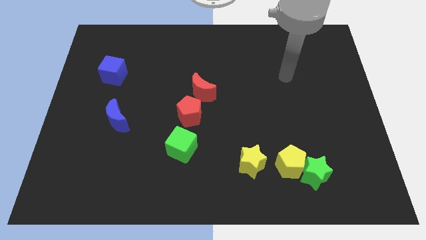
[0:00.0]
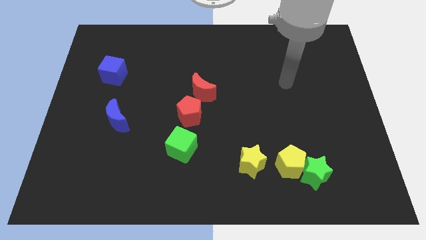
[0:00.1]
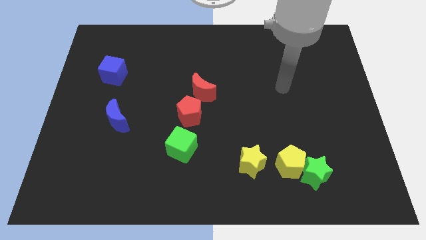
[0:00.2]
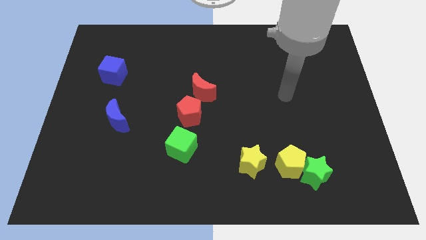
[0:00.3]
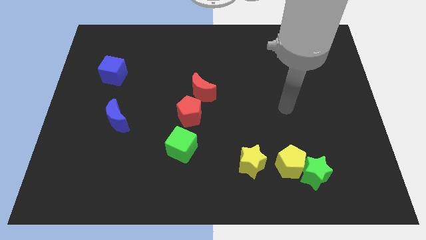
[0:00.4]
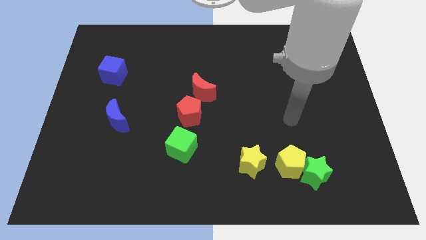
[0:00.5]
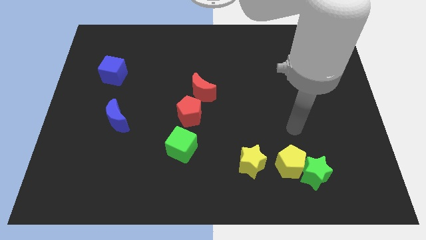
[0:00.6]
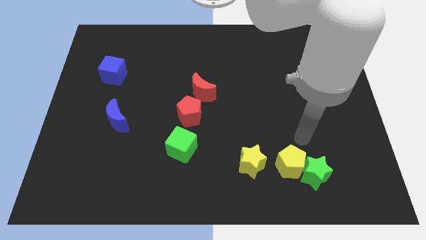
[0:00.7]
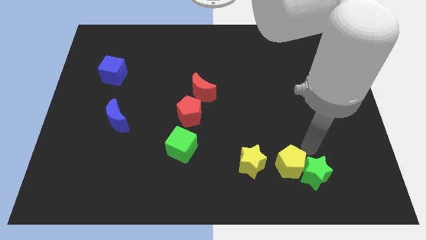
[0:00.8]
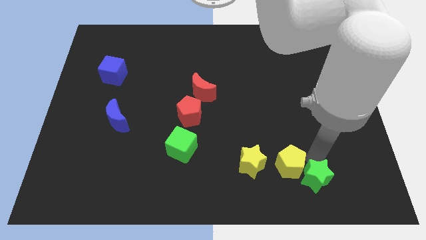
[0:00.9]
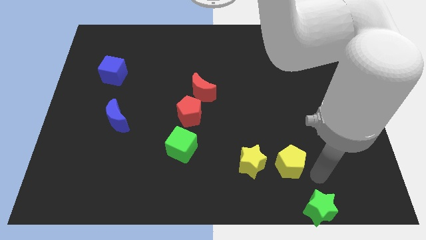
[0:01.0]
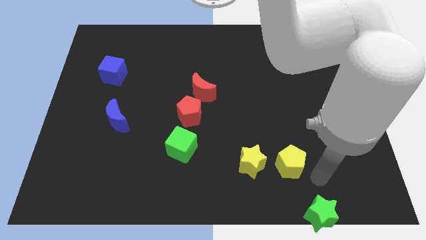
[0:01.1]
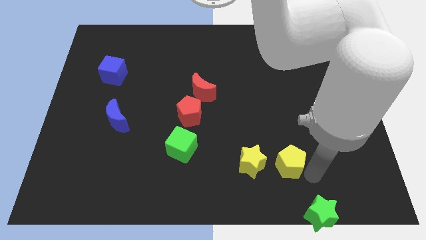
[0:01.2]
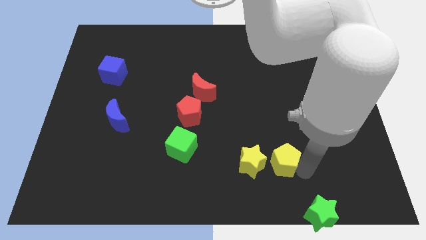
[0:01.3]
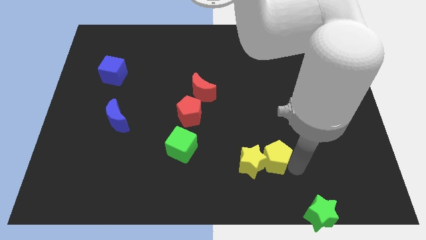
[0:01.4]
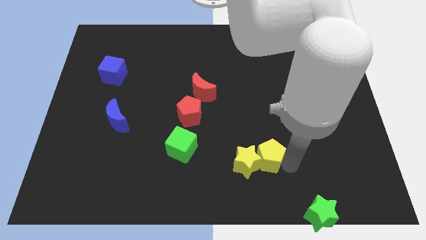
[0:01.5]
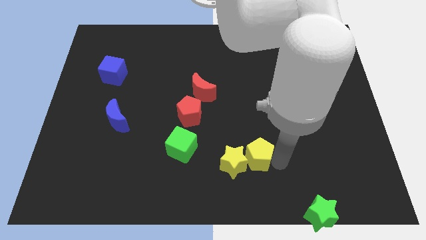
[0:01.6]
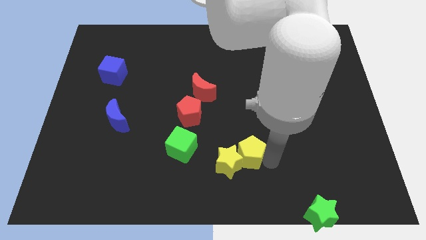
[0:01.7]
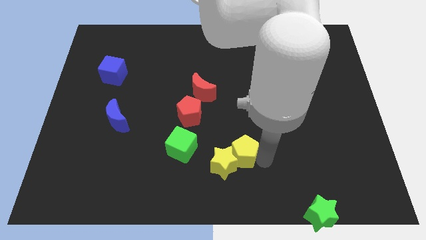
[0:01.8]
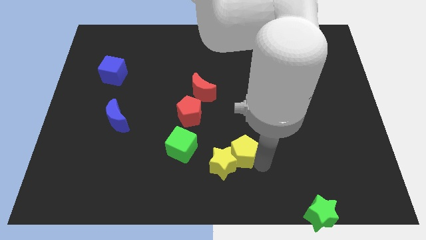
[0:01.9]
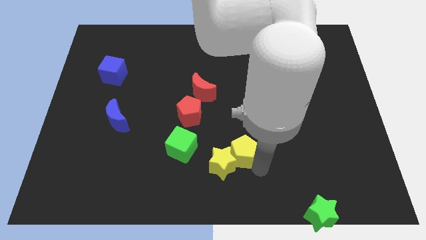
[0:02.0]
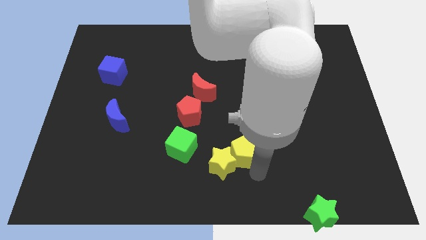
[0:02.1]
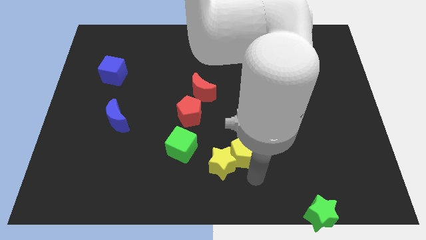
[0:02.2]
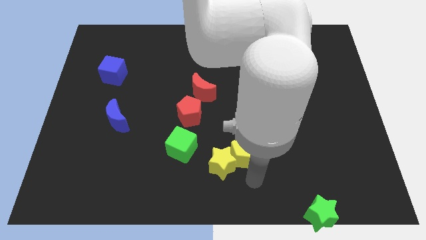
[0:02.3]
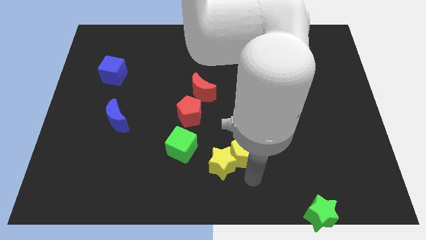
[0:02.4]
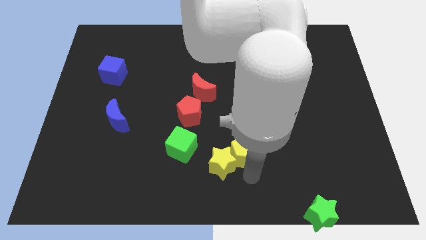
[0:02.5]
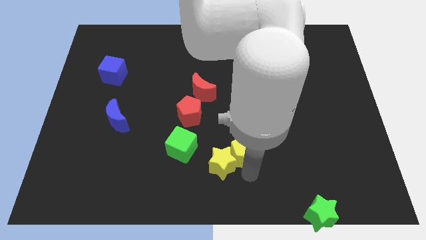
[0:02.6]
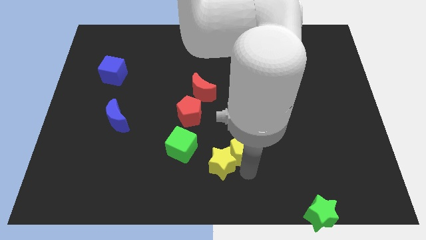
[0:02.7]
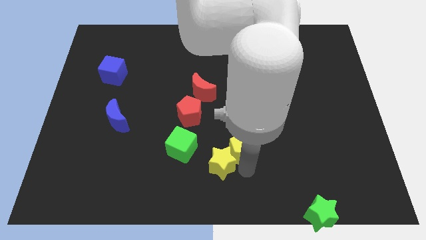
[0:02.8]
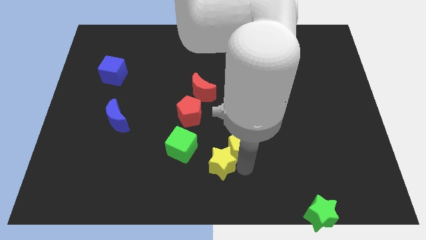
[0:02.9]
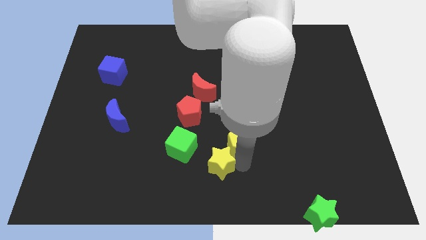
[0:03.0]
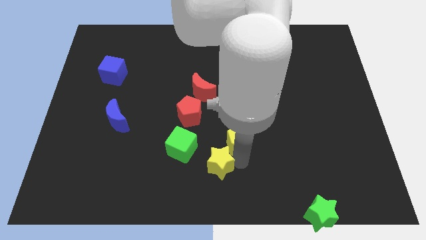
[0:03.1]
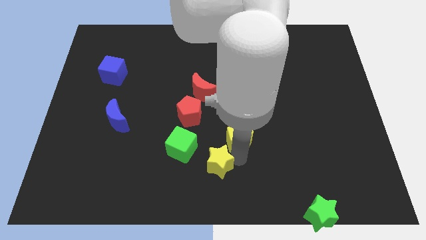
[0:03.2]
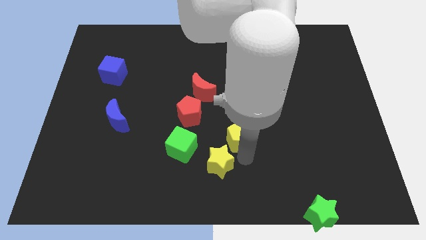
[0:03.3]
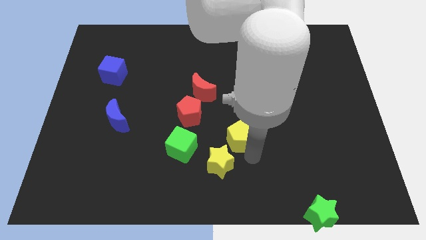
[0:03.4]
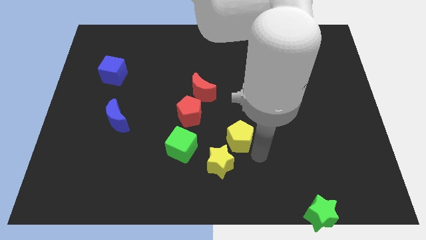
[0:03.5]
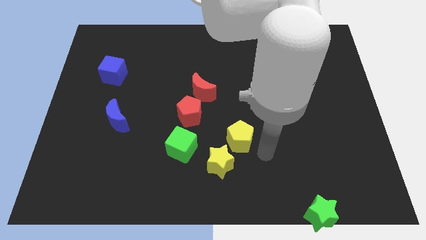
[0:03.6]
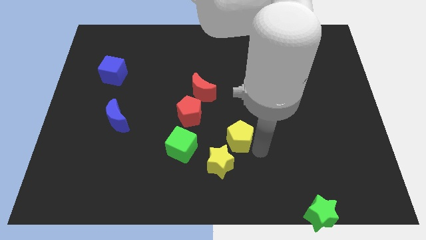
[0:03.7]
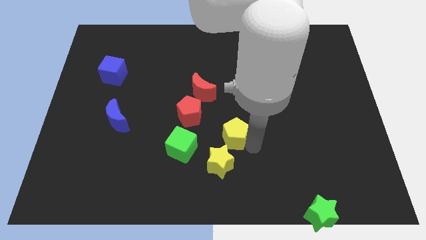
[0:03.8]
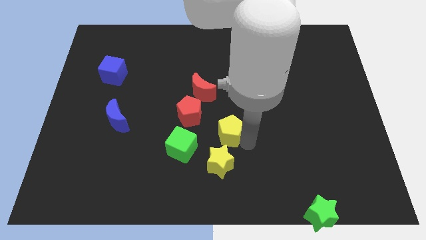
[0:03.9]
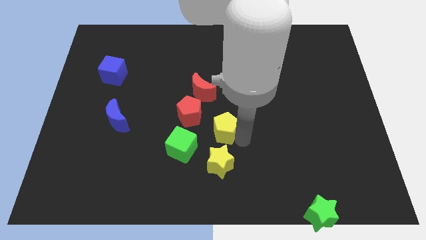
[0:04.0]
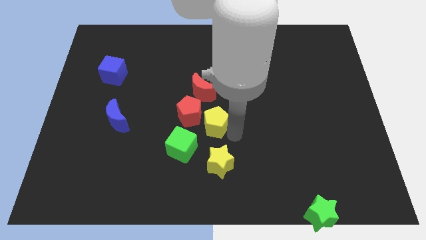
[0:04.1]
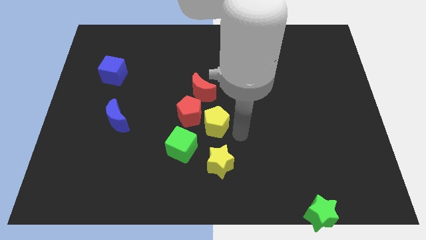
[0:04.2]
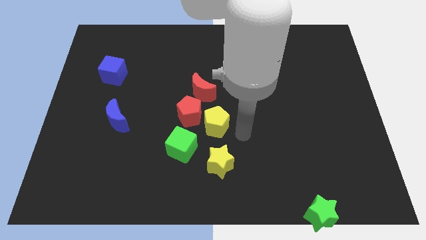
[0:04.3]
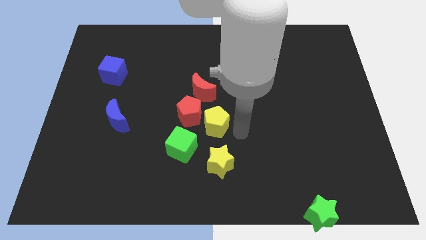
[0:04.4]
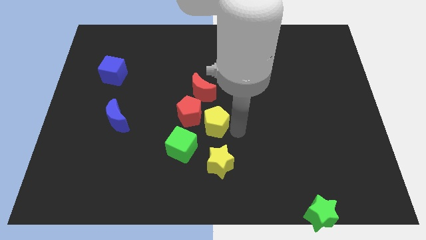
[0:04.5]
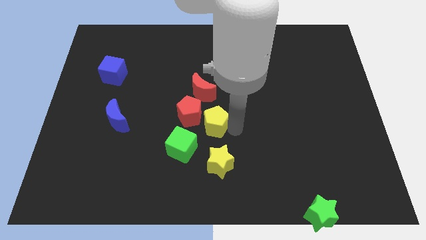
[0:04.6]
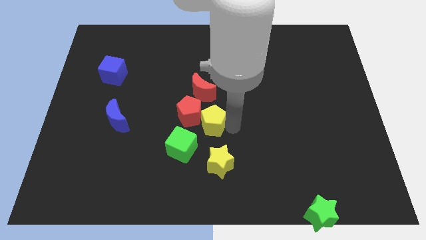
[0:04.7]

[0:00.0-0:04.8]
slide the yellow pentagon to the red pentagon

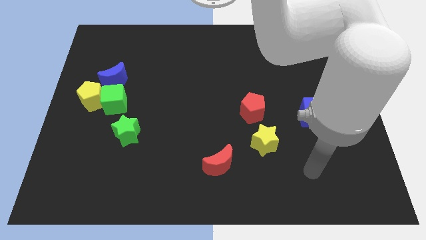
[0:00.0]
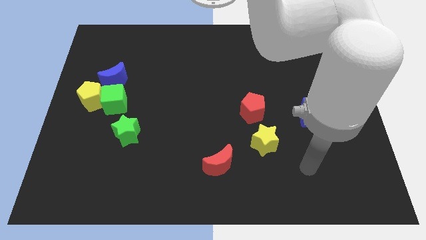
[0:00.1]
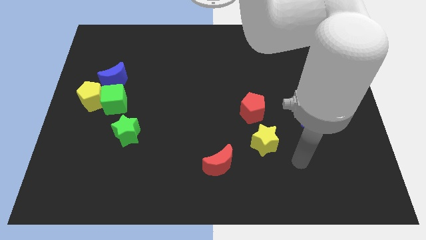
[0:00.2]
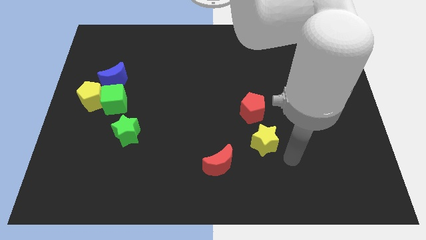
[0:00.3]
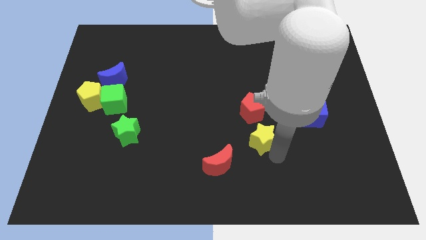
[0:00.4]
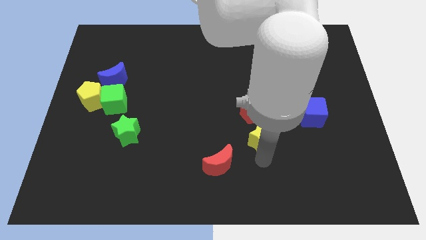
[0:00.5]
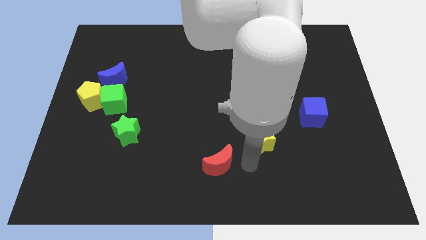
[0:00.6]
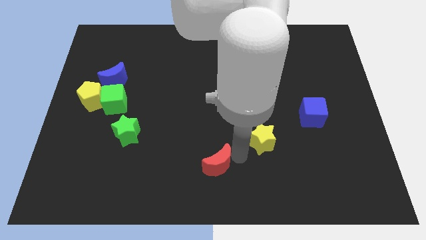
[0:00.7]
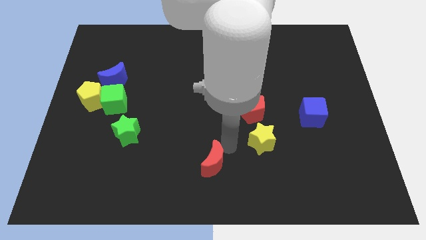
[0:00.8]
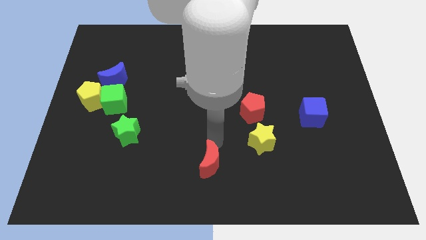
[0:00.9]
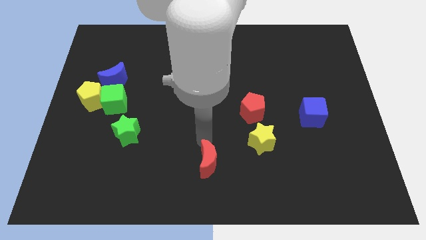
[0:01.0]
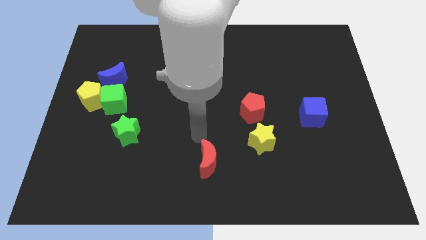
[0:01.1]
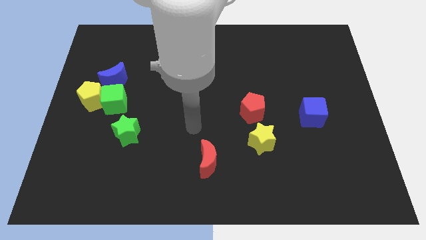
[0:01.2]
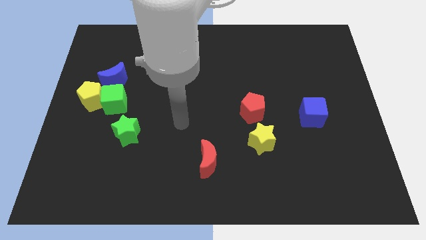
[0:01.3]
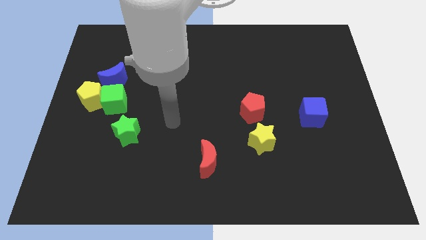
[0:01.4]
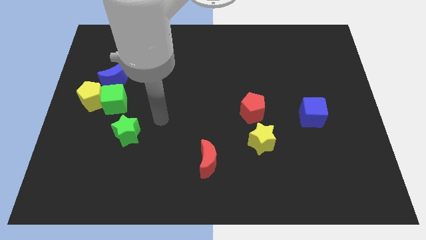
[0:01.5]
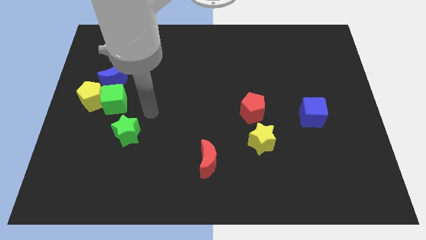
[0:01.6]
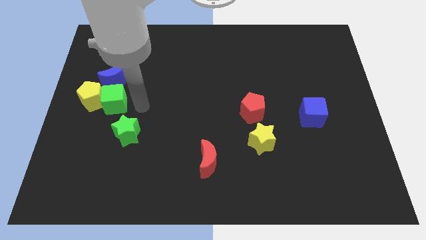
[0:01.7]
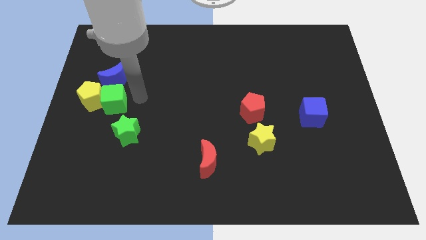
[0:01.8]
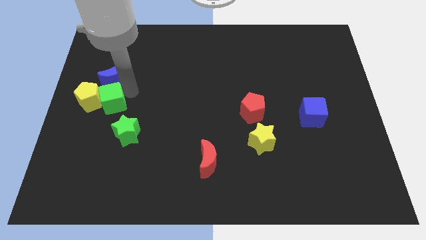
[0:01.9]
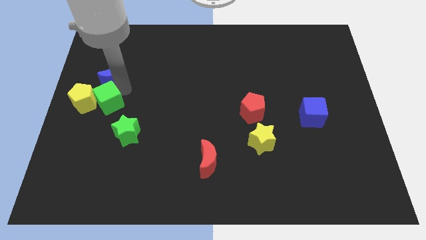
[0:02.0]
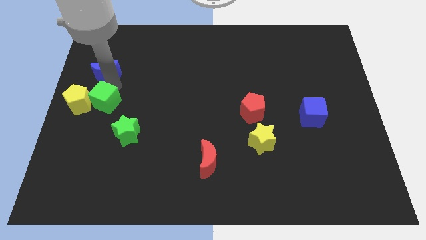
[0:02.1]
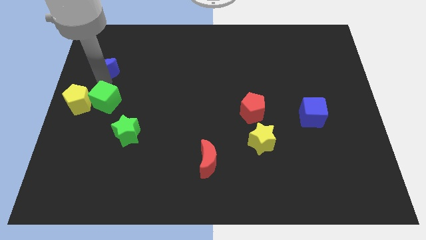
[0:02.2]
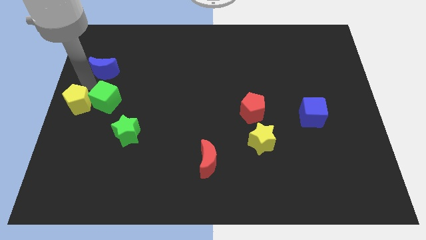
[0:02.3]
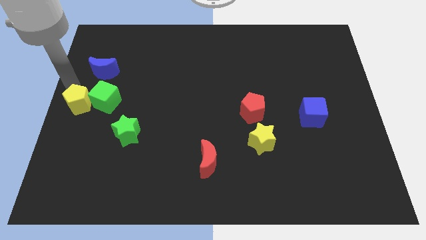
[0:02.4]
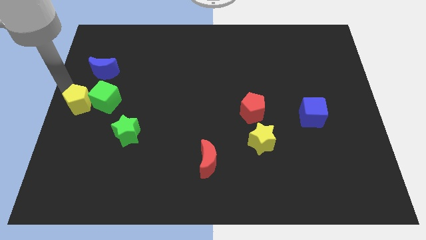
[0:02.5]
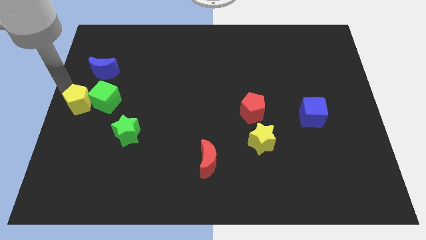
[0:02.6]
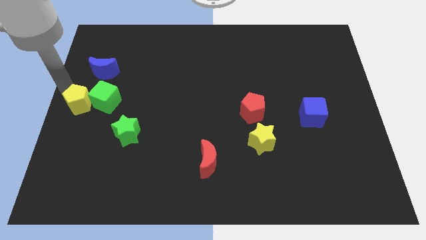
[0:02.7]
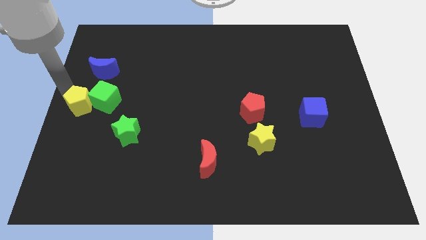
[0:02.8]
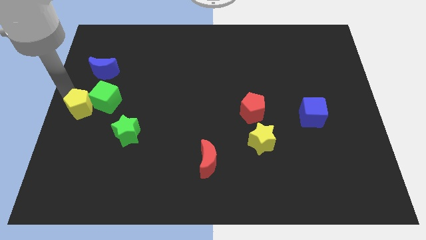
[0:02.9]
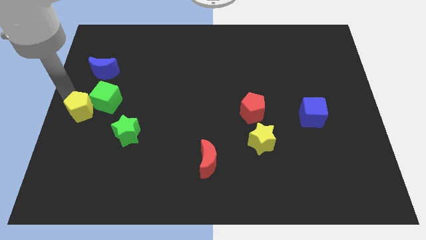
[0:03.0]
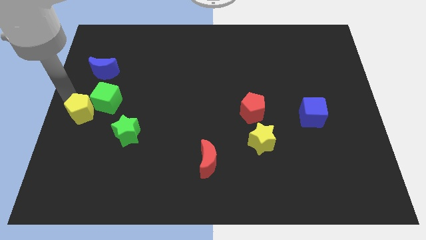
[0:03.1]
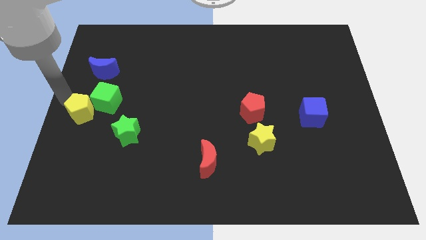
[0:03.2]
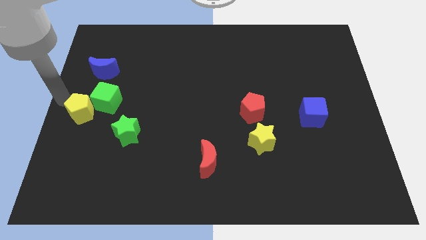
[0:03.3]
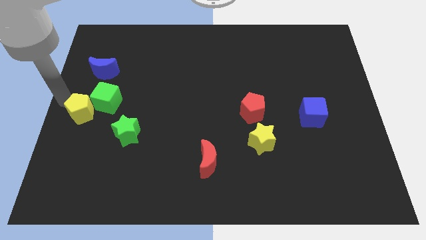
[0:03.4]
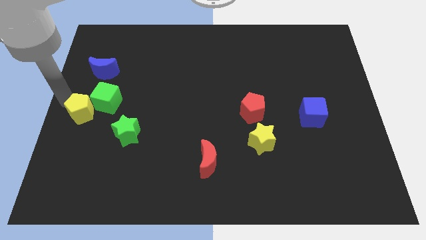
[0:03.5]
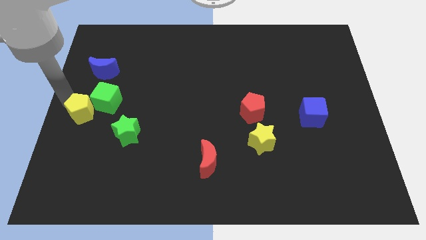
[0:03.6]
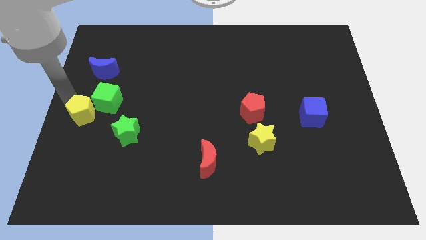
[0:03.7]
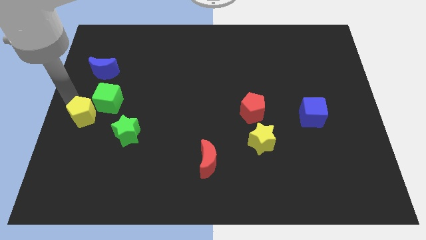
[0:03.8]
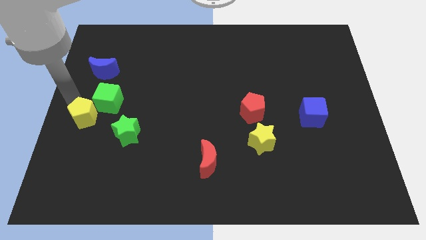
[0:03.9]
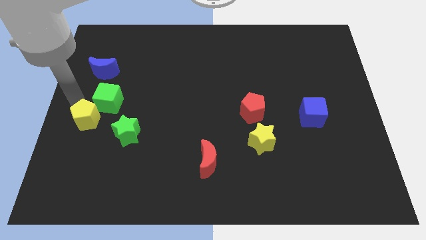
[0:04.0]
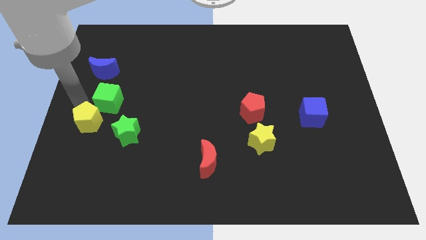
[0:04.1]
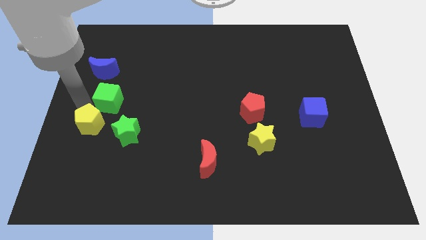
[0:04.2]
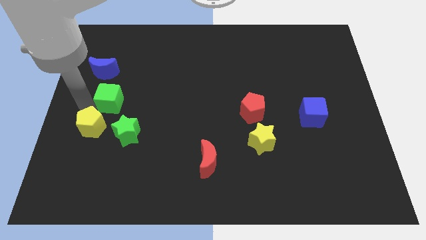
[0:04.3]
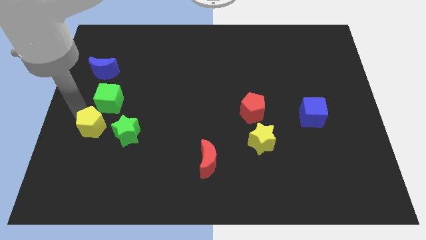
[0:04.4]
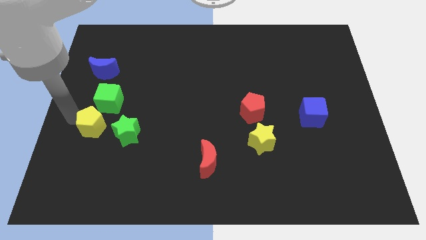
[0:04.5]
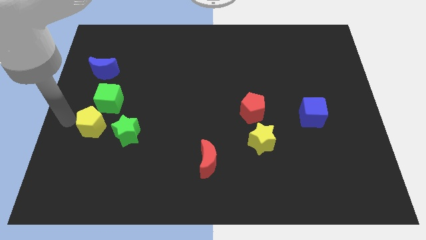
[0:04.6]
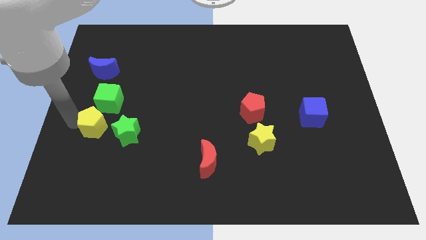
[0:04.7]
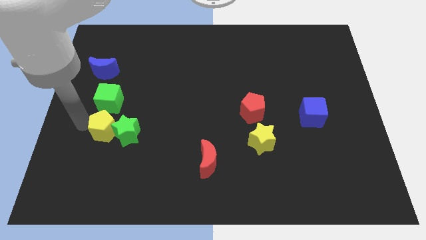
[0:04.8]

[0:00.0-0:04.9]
slide the yellow pentagon close to the green star
